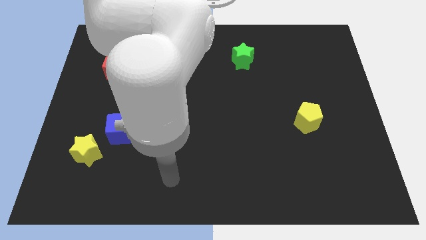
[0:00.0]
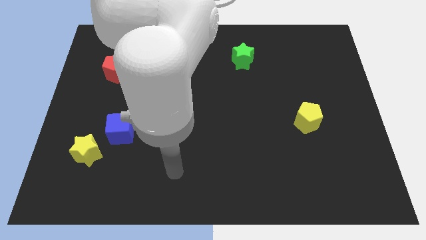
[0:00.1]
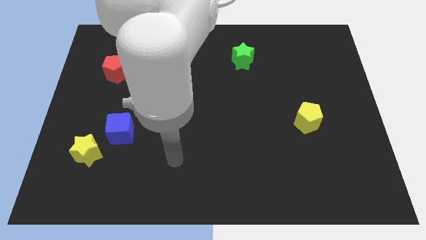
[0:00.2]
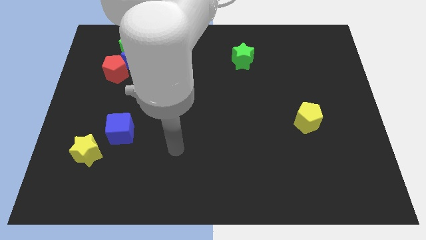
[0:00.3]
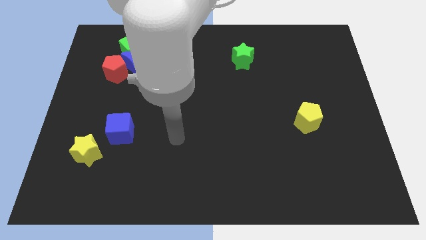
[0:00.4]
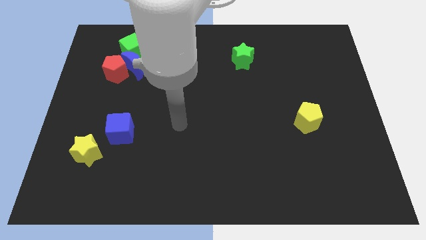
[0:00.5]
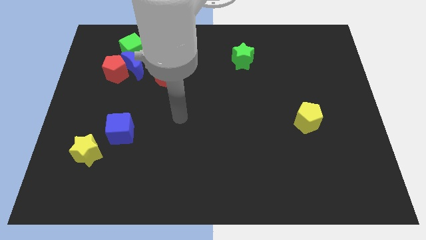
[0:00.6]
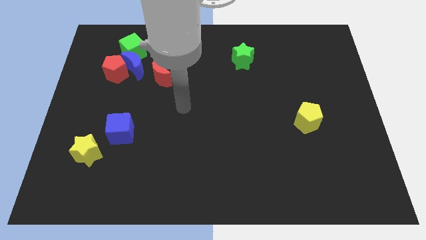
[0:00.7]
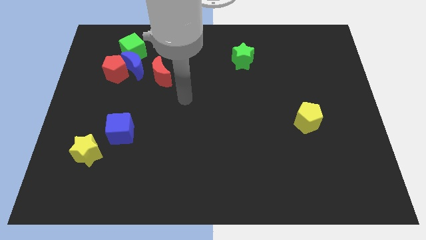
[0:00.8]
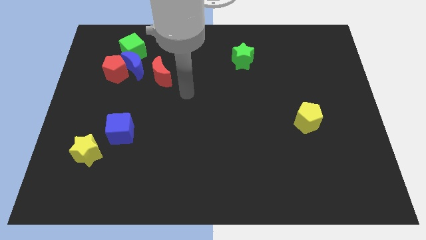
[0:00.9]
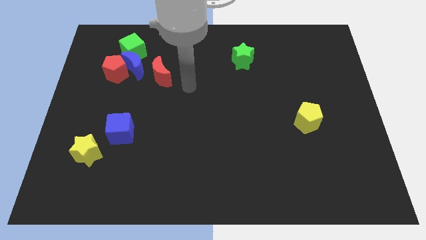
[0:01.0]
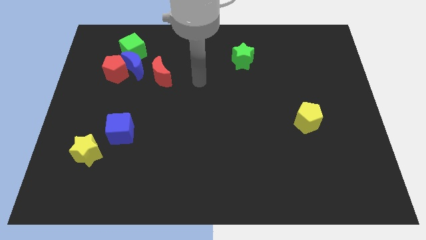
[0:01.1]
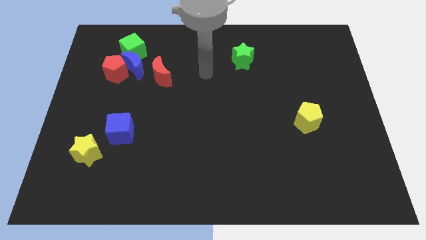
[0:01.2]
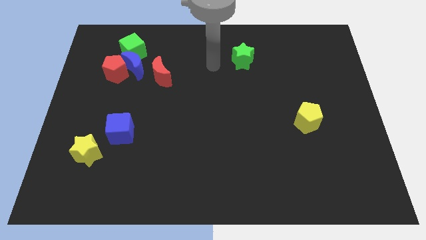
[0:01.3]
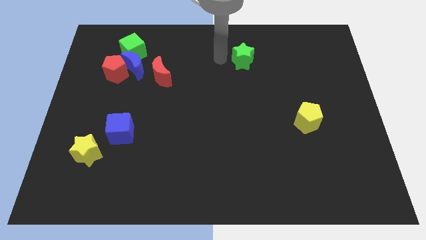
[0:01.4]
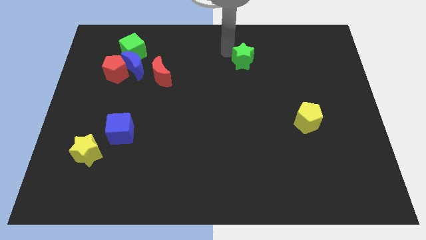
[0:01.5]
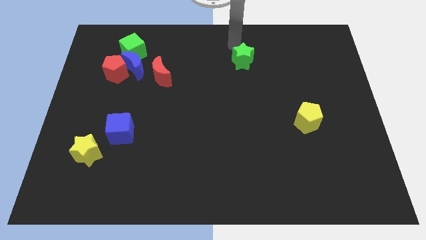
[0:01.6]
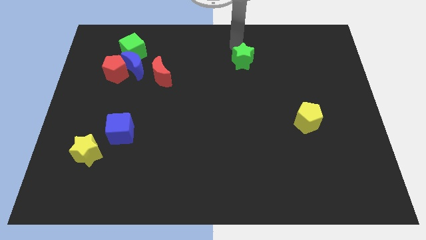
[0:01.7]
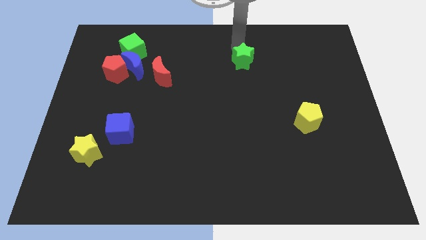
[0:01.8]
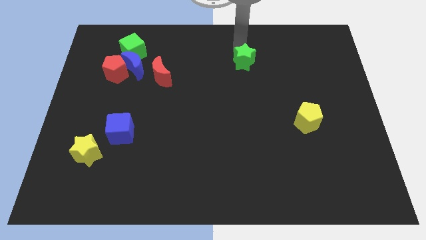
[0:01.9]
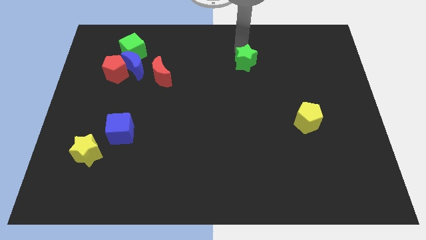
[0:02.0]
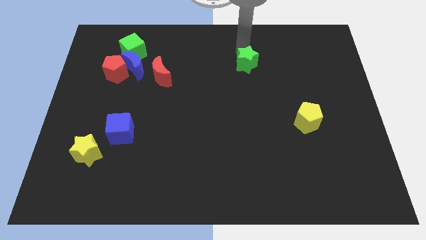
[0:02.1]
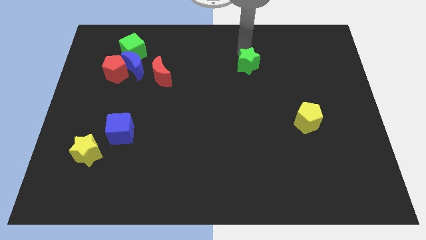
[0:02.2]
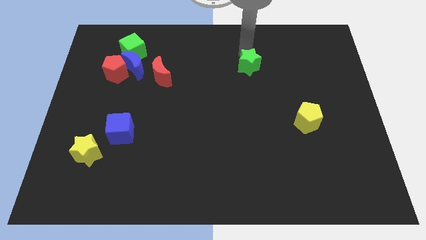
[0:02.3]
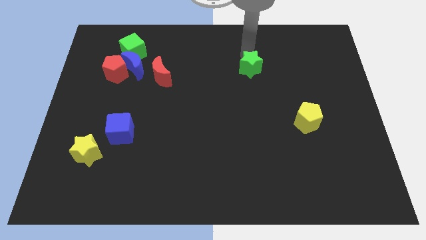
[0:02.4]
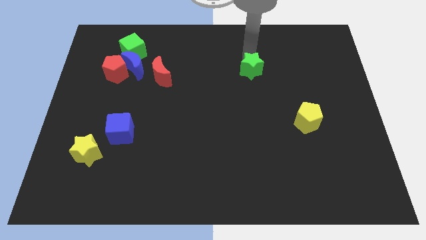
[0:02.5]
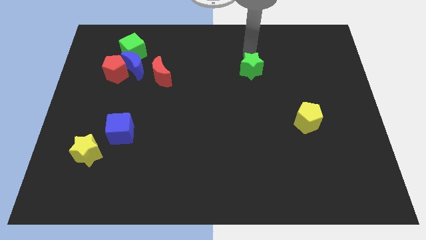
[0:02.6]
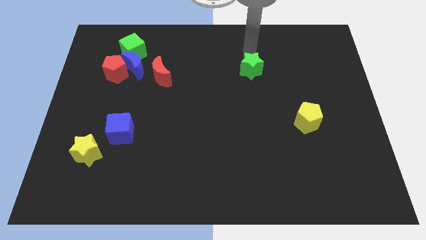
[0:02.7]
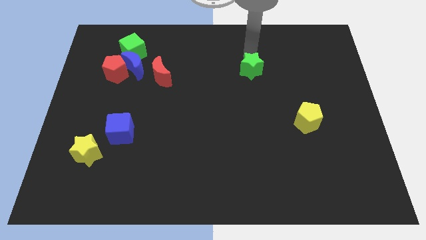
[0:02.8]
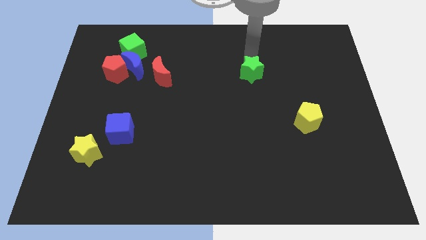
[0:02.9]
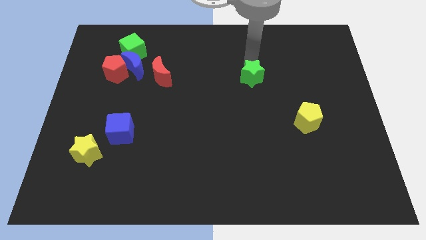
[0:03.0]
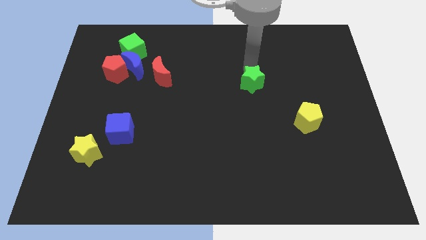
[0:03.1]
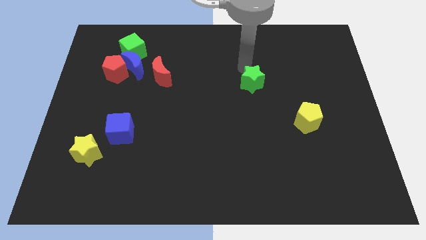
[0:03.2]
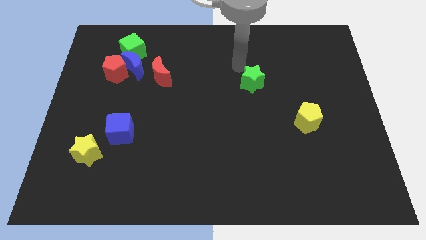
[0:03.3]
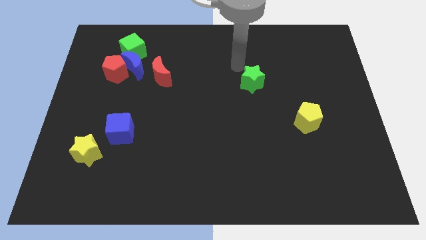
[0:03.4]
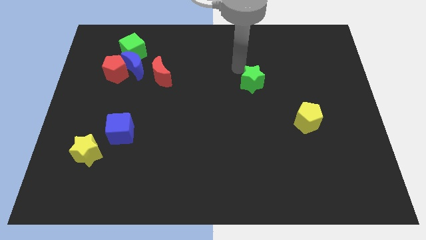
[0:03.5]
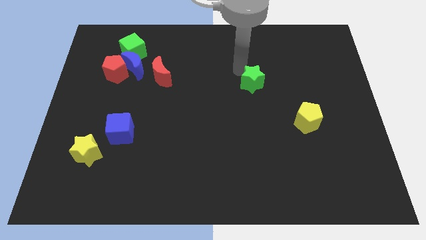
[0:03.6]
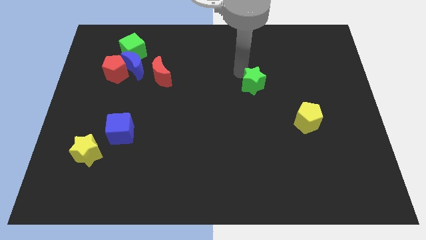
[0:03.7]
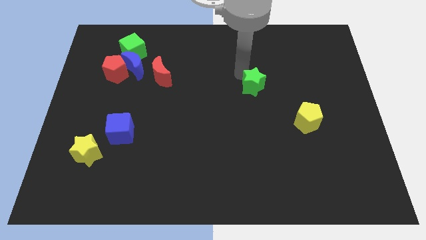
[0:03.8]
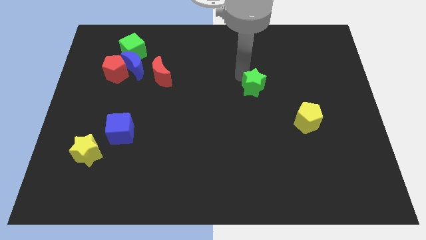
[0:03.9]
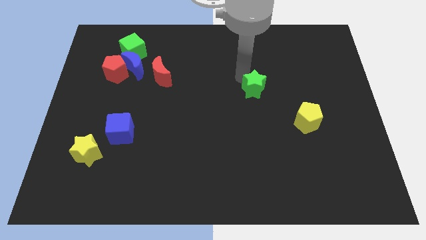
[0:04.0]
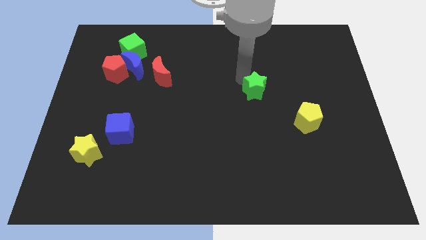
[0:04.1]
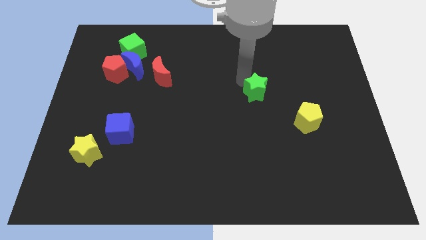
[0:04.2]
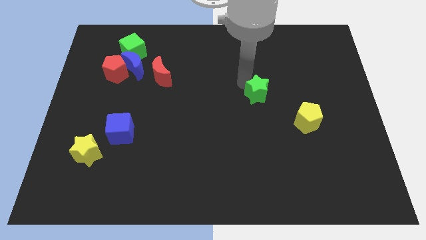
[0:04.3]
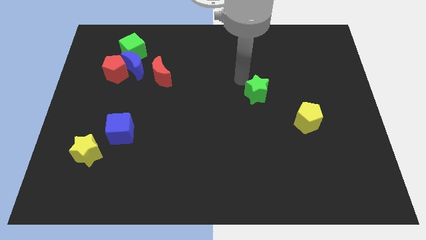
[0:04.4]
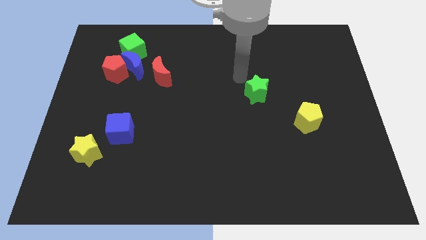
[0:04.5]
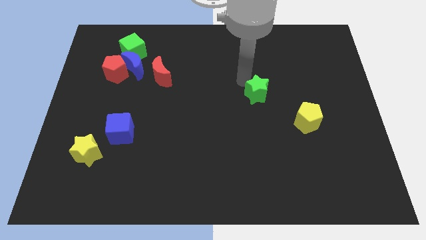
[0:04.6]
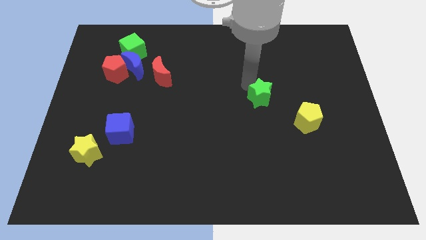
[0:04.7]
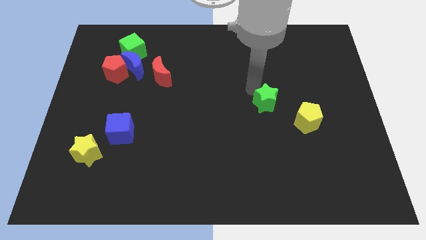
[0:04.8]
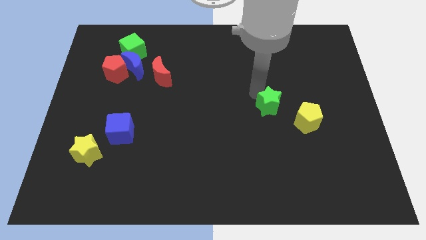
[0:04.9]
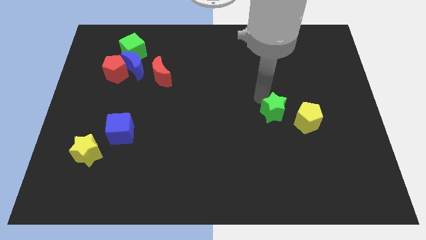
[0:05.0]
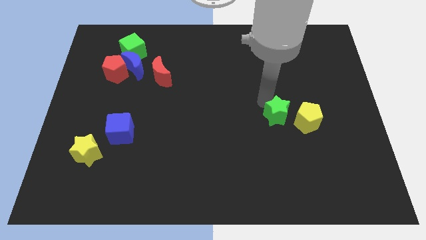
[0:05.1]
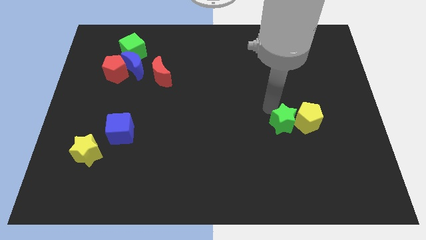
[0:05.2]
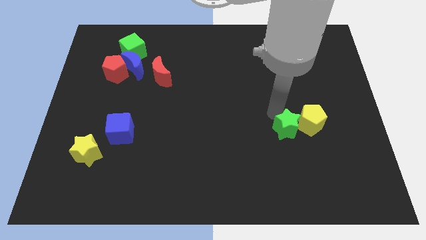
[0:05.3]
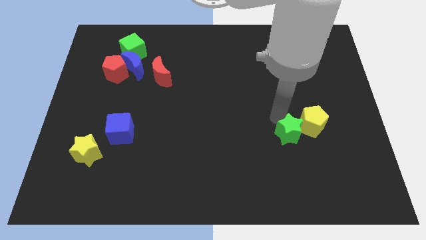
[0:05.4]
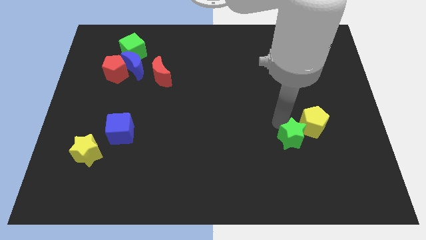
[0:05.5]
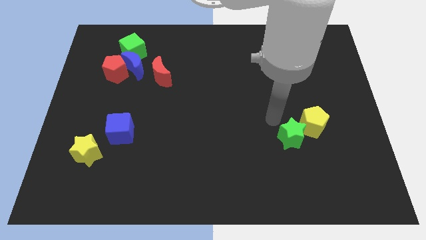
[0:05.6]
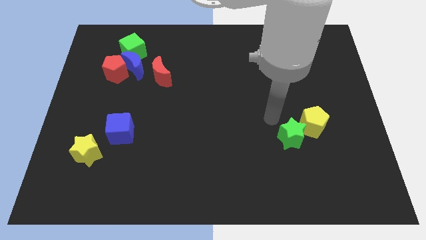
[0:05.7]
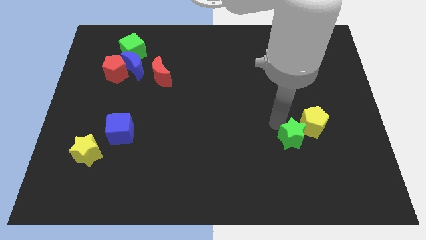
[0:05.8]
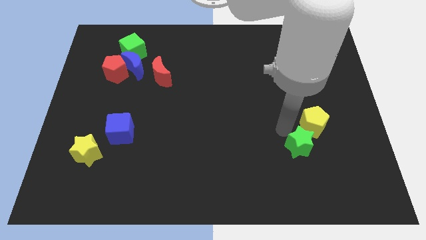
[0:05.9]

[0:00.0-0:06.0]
slide the green star to the bottom of the yellow pentagon

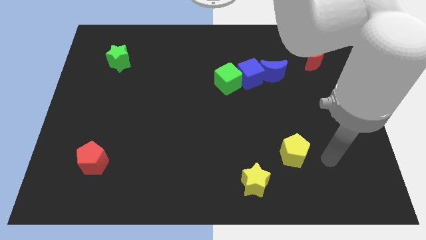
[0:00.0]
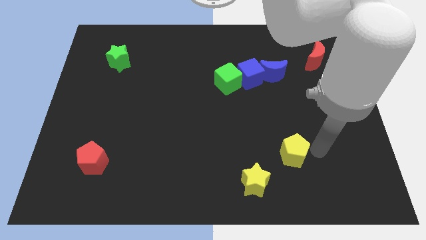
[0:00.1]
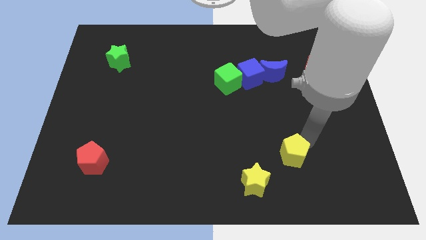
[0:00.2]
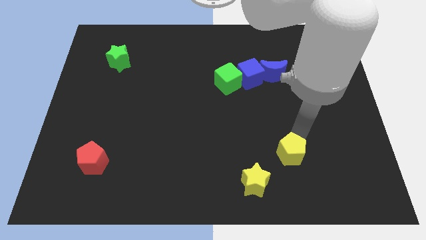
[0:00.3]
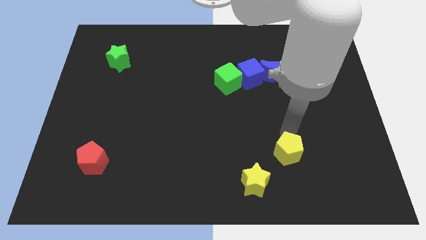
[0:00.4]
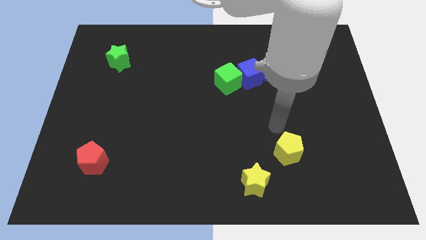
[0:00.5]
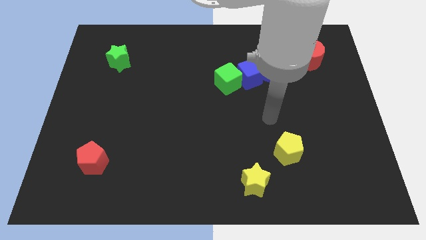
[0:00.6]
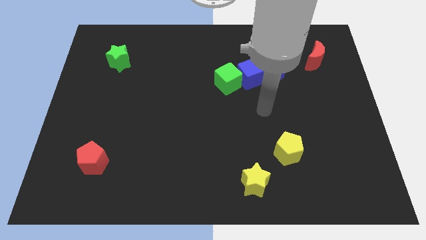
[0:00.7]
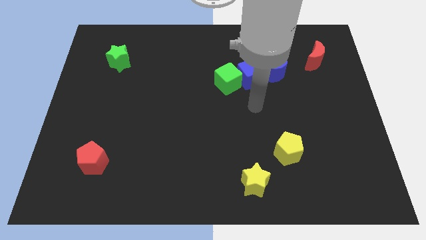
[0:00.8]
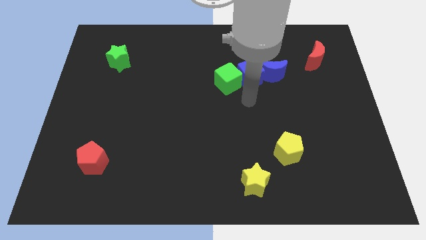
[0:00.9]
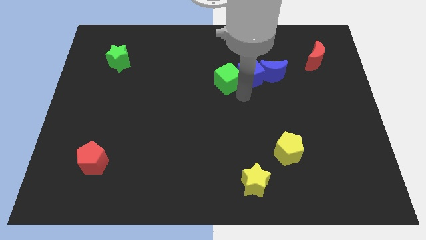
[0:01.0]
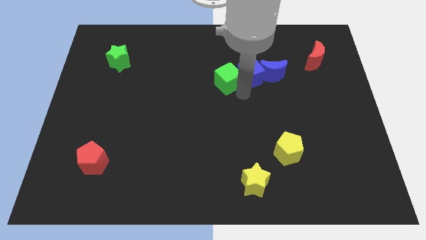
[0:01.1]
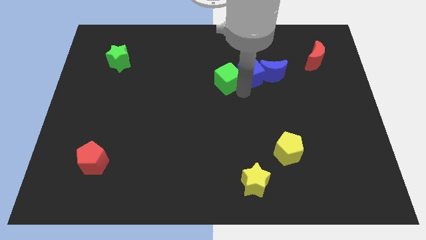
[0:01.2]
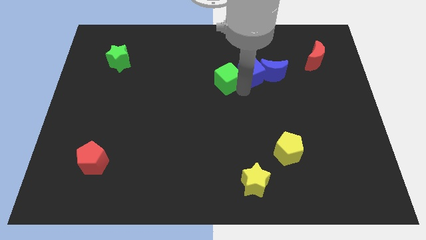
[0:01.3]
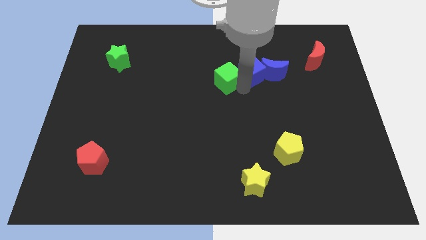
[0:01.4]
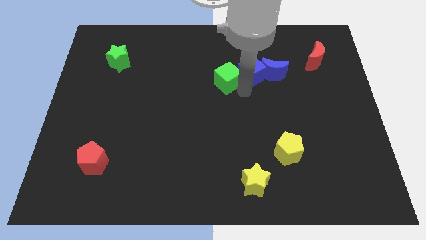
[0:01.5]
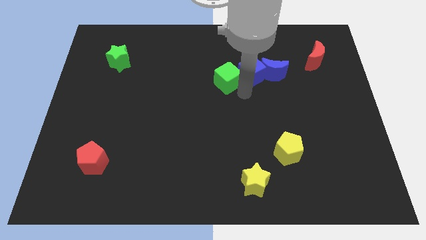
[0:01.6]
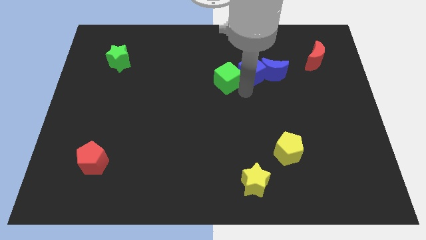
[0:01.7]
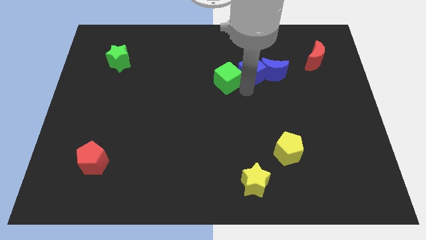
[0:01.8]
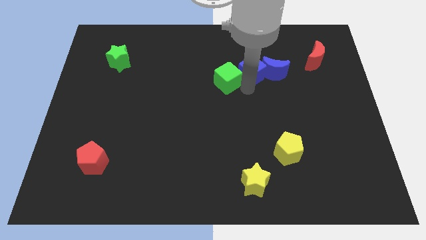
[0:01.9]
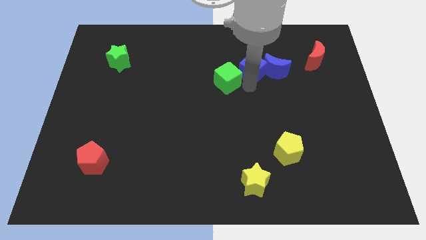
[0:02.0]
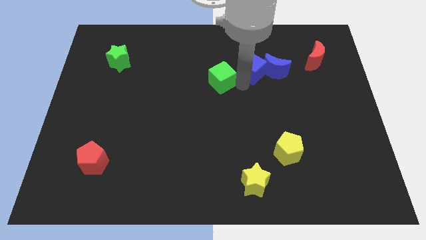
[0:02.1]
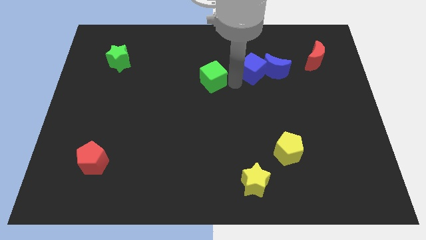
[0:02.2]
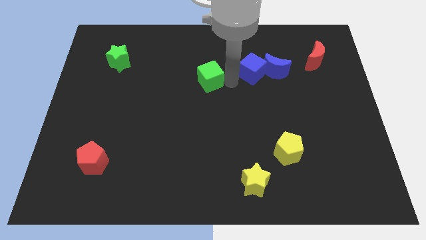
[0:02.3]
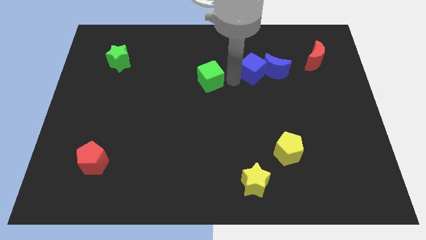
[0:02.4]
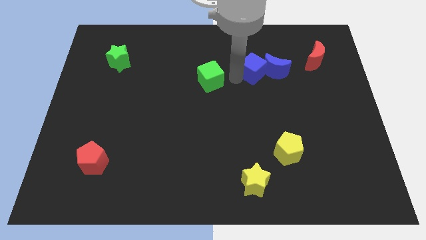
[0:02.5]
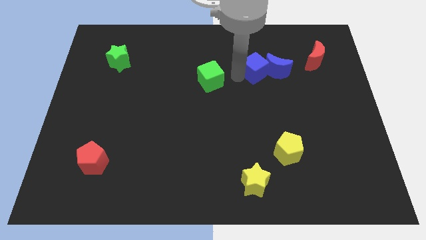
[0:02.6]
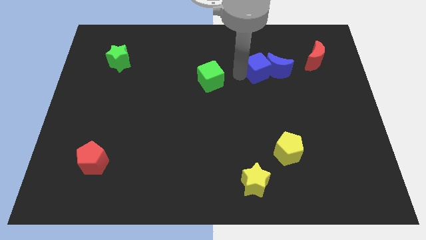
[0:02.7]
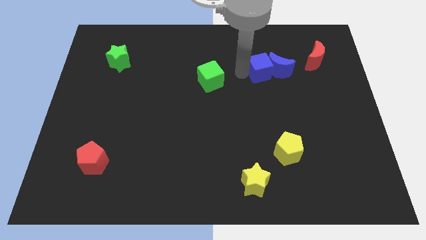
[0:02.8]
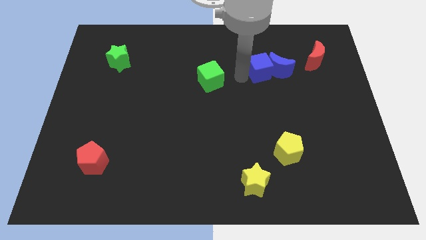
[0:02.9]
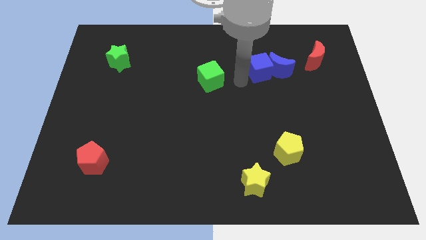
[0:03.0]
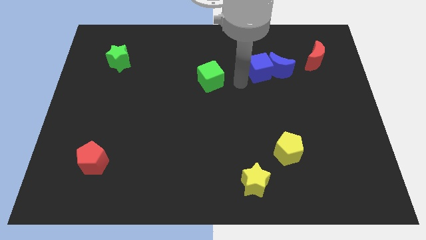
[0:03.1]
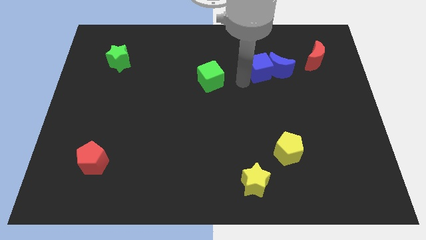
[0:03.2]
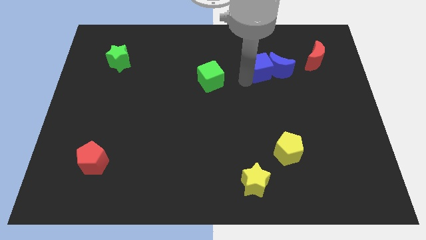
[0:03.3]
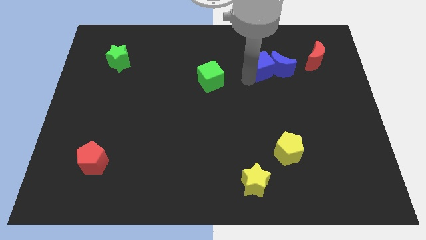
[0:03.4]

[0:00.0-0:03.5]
move the blue cube to the left of the red moon
